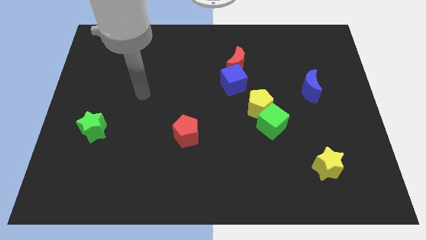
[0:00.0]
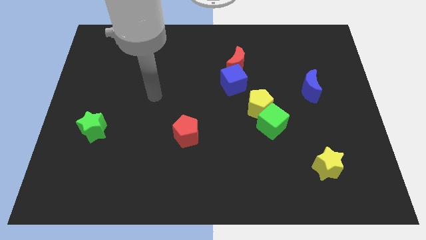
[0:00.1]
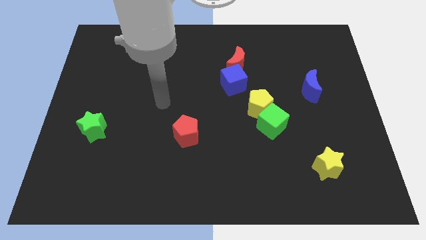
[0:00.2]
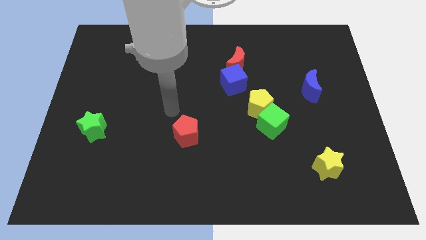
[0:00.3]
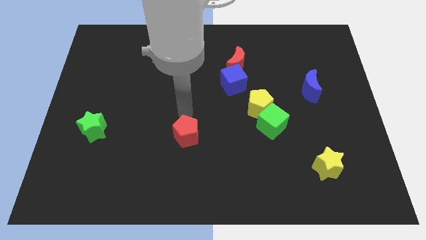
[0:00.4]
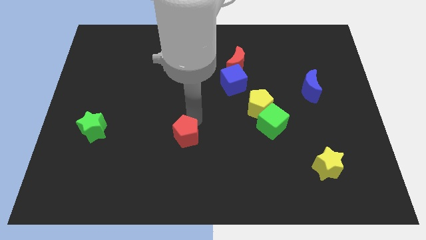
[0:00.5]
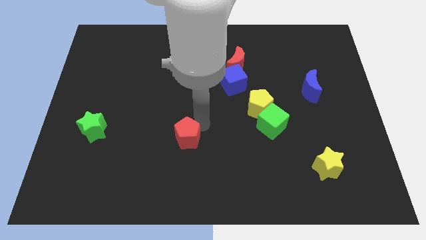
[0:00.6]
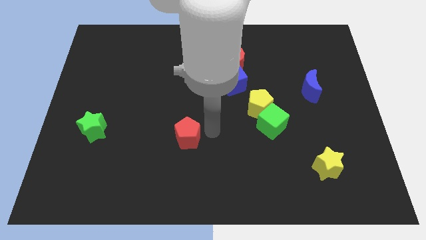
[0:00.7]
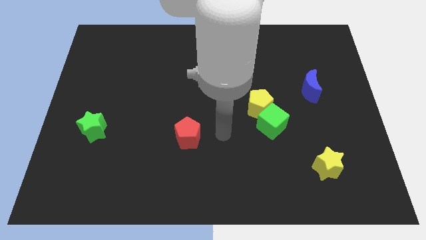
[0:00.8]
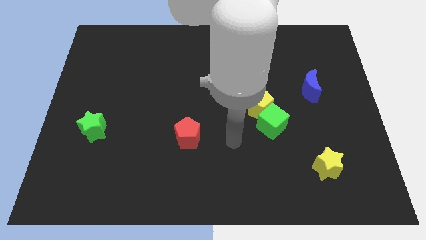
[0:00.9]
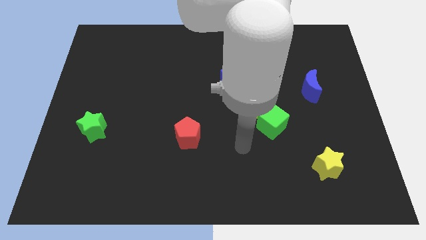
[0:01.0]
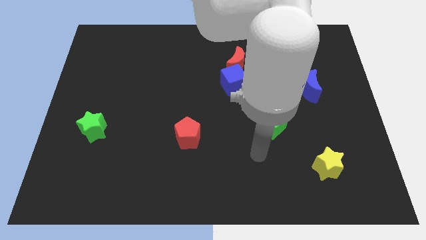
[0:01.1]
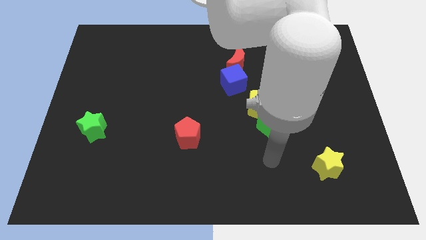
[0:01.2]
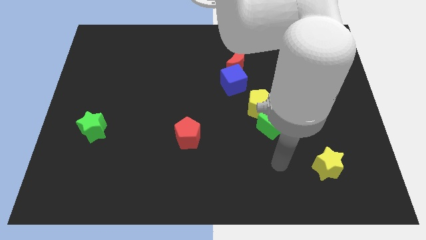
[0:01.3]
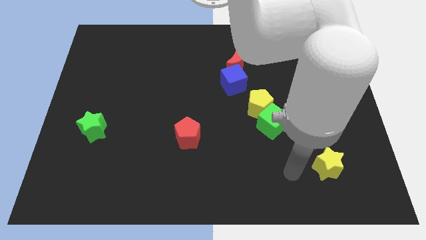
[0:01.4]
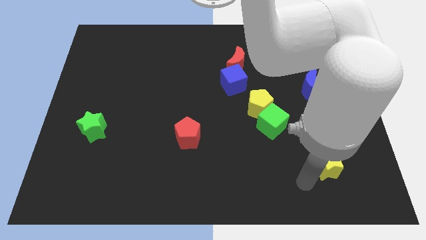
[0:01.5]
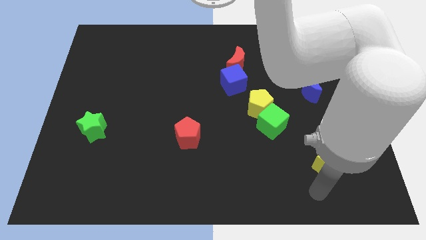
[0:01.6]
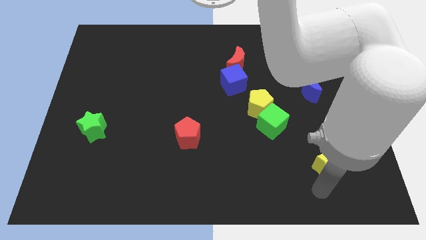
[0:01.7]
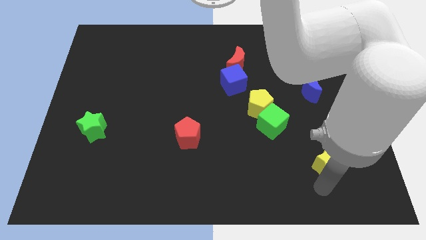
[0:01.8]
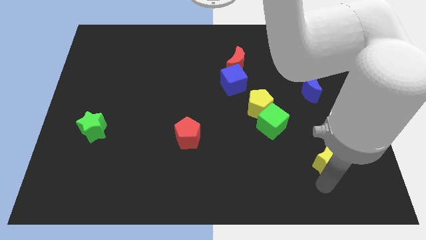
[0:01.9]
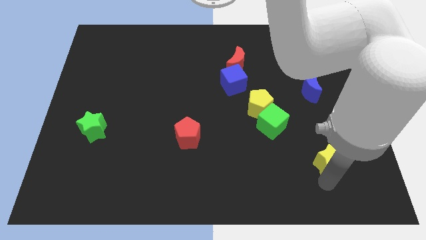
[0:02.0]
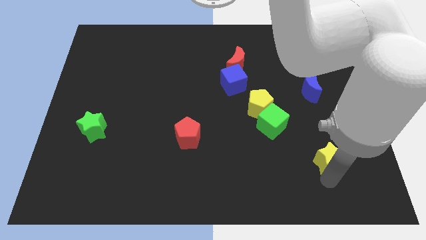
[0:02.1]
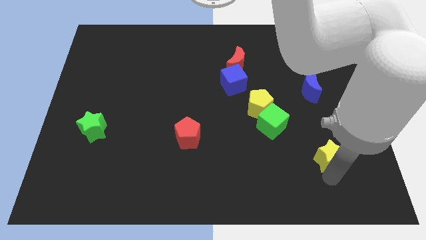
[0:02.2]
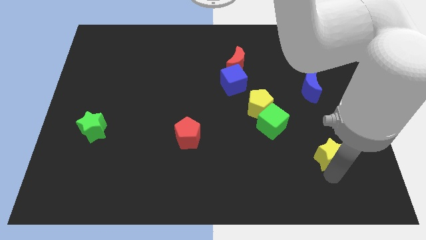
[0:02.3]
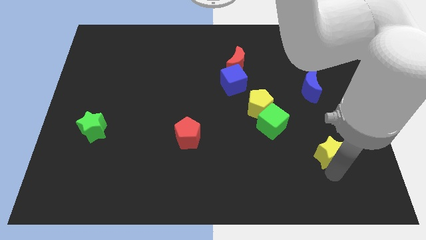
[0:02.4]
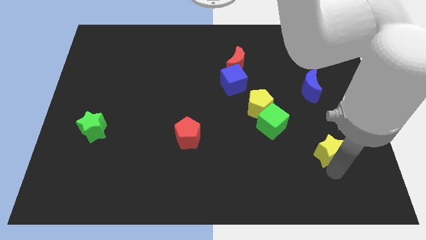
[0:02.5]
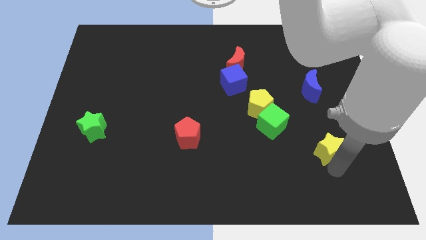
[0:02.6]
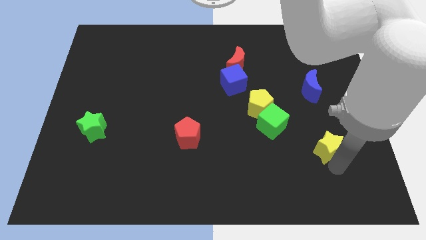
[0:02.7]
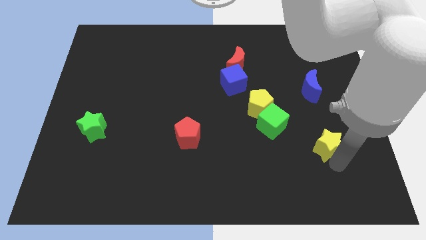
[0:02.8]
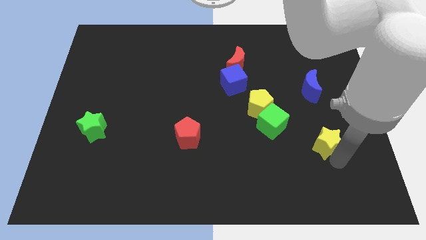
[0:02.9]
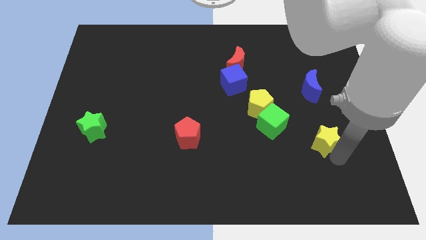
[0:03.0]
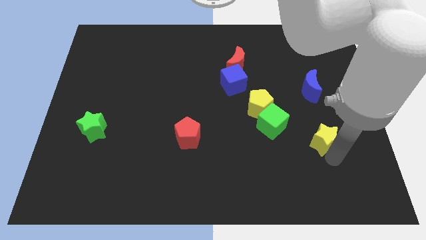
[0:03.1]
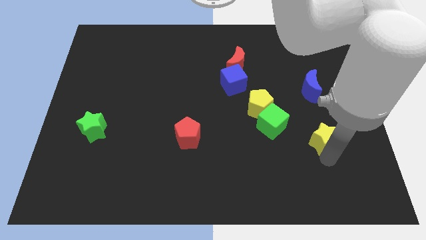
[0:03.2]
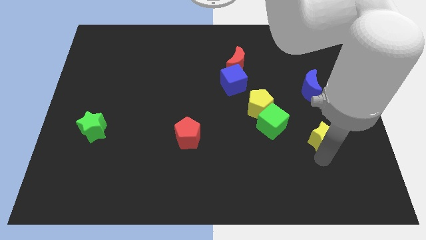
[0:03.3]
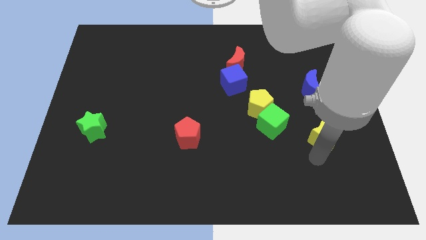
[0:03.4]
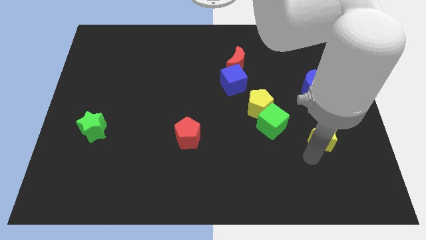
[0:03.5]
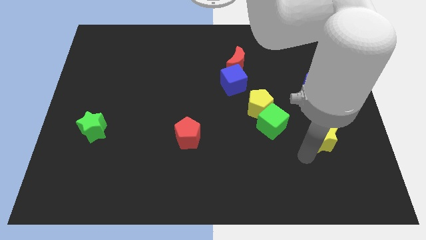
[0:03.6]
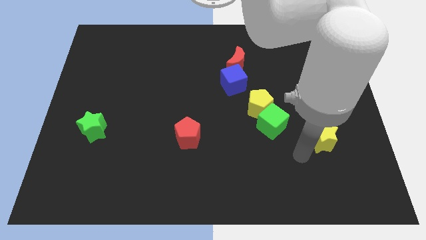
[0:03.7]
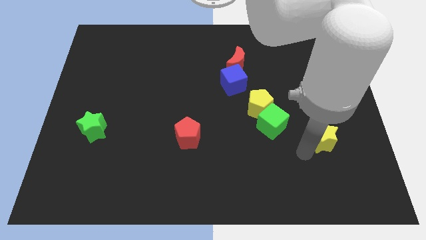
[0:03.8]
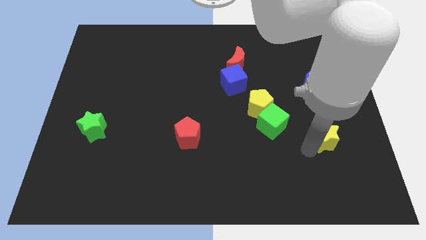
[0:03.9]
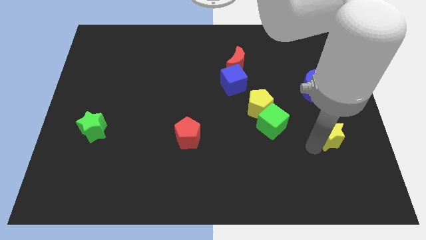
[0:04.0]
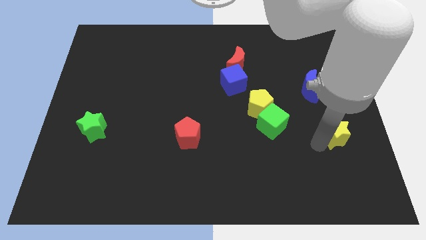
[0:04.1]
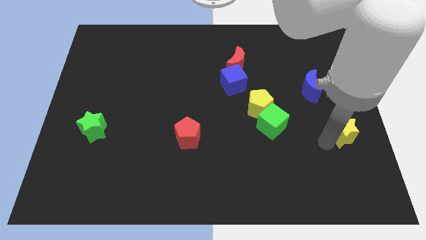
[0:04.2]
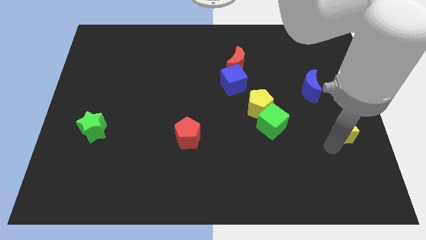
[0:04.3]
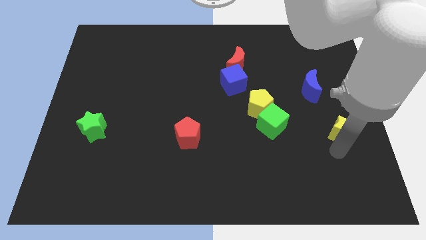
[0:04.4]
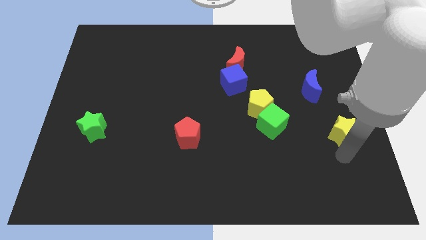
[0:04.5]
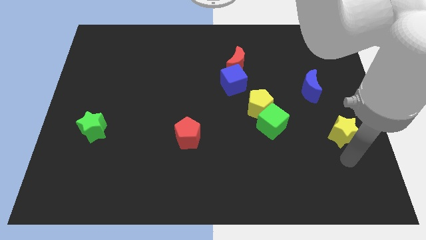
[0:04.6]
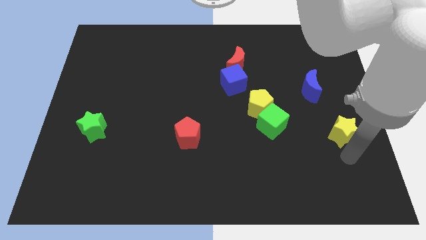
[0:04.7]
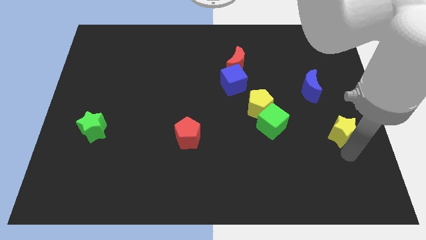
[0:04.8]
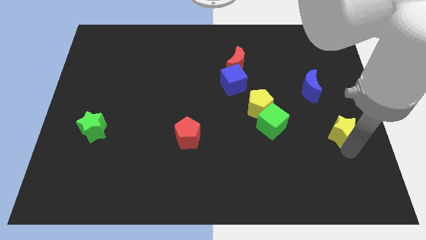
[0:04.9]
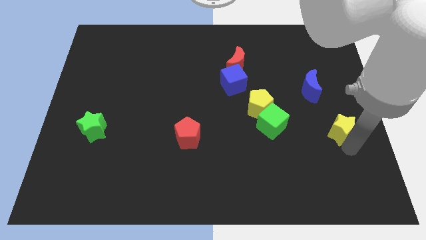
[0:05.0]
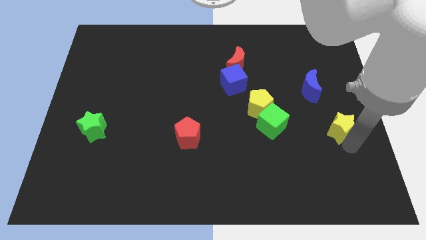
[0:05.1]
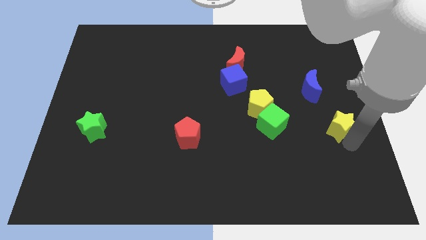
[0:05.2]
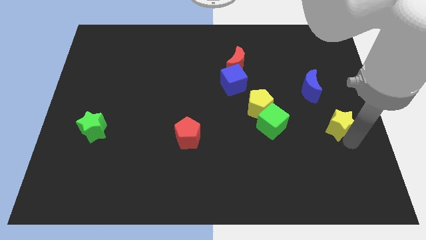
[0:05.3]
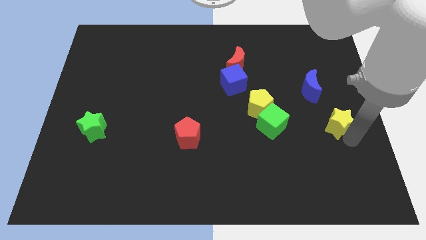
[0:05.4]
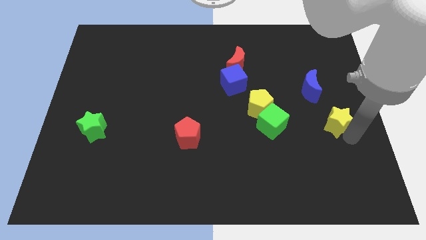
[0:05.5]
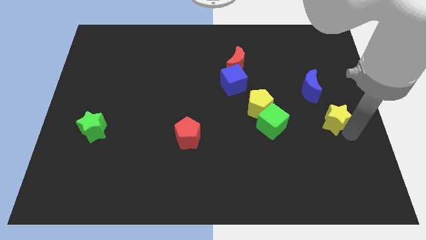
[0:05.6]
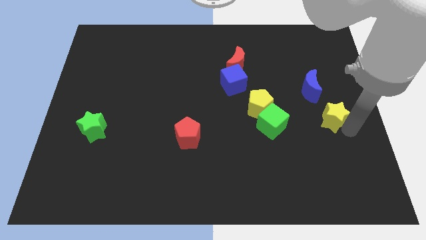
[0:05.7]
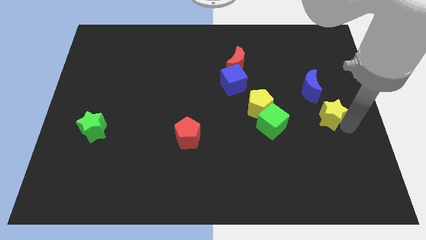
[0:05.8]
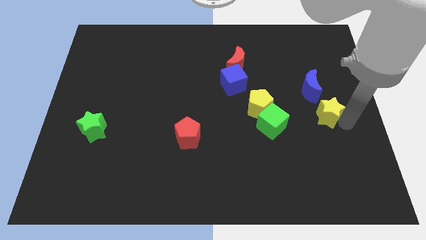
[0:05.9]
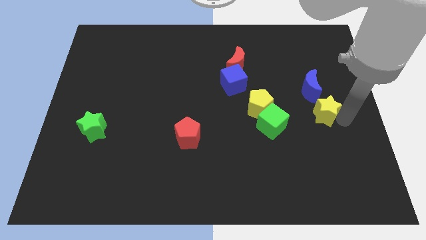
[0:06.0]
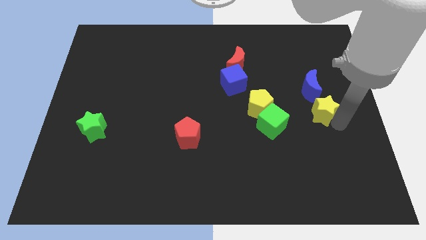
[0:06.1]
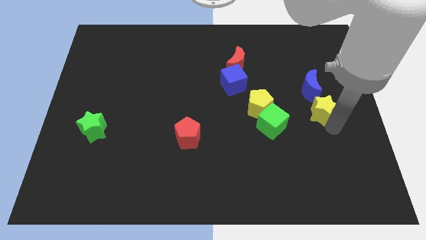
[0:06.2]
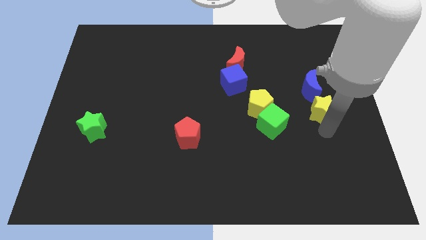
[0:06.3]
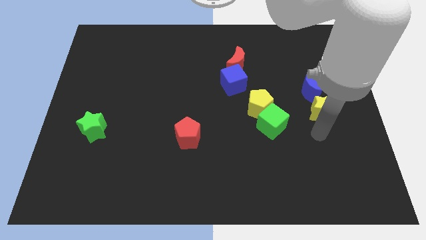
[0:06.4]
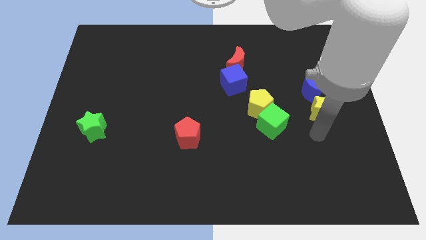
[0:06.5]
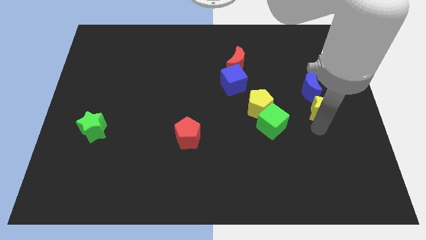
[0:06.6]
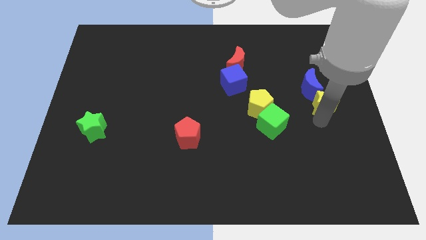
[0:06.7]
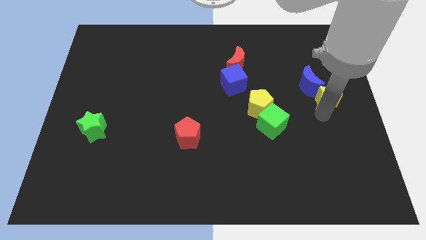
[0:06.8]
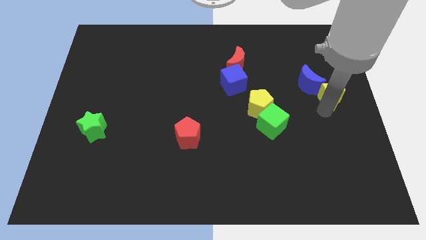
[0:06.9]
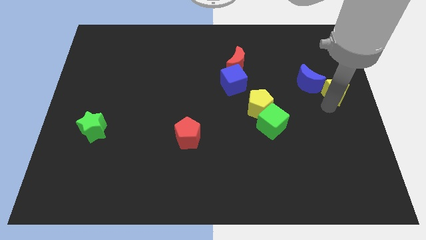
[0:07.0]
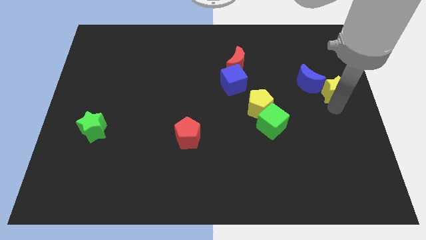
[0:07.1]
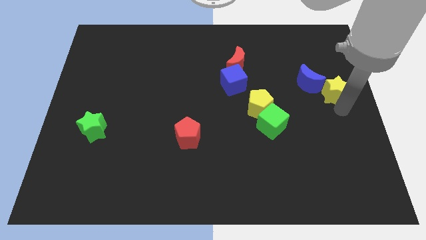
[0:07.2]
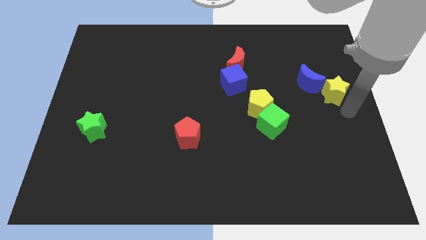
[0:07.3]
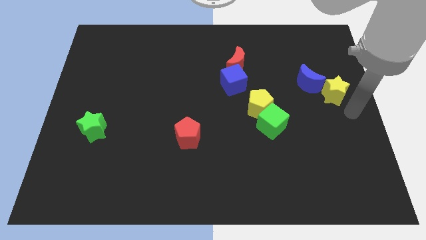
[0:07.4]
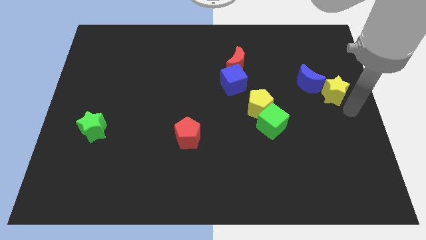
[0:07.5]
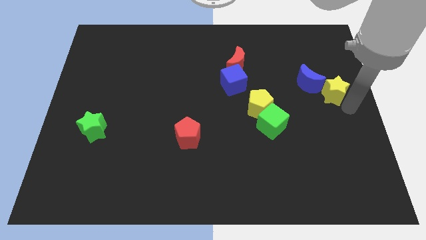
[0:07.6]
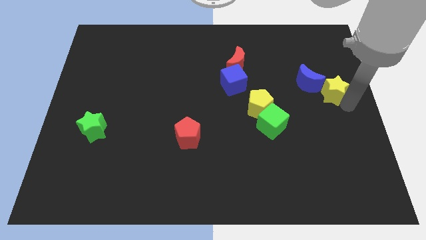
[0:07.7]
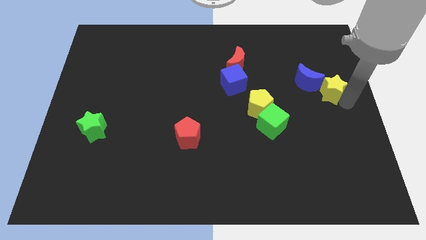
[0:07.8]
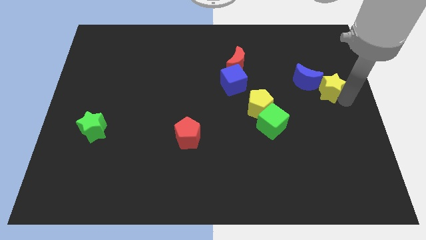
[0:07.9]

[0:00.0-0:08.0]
move the yellow star up
